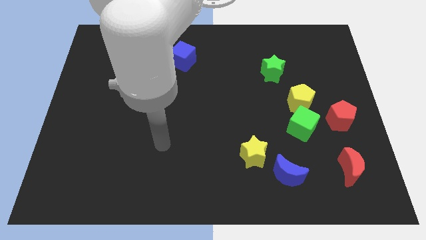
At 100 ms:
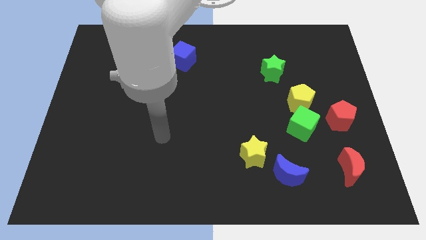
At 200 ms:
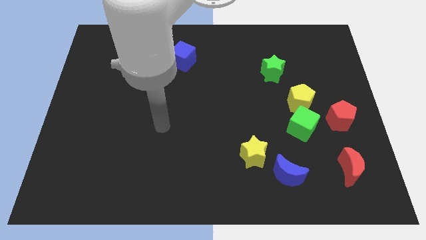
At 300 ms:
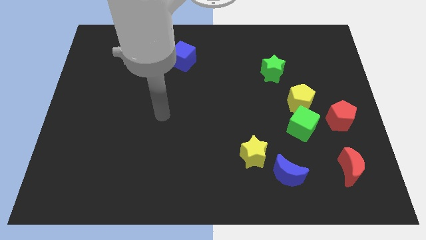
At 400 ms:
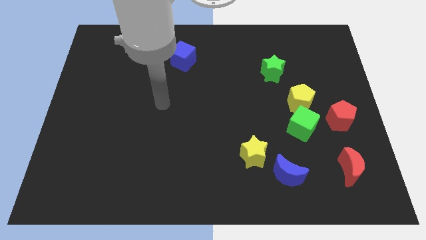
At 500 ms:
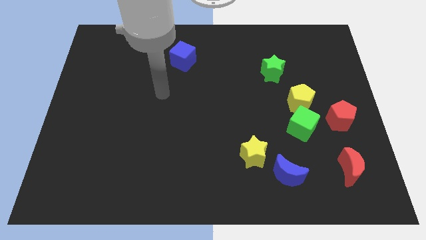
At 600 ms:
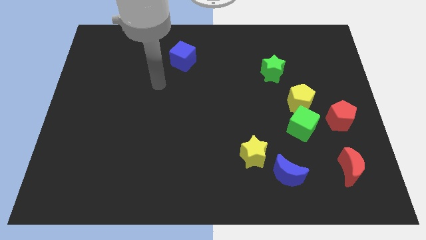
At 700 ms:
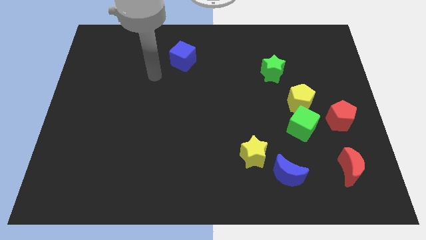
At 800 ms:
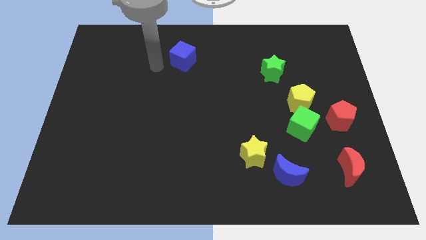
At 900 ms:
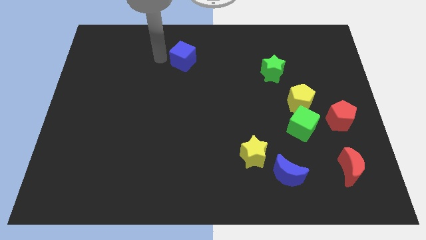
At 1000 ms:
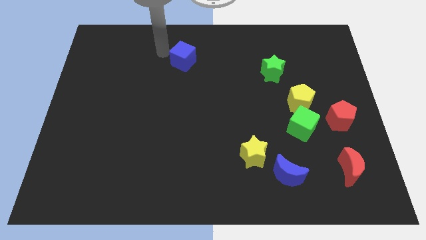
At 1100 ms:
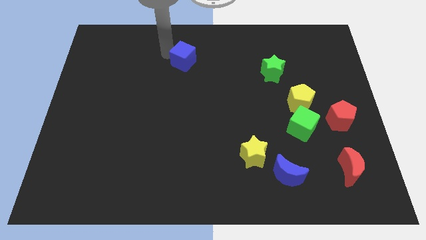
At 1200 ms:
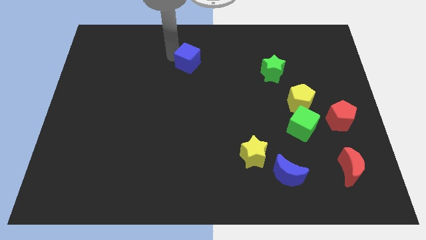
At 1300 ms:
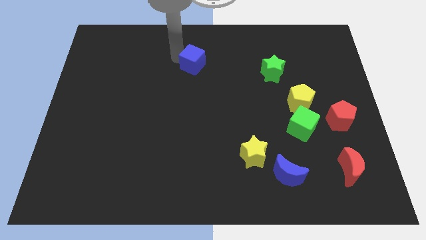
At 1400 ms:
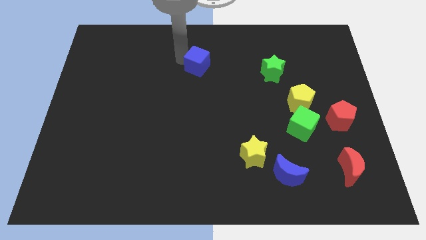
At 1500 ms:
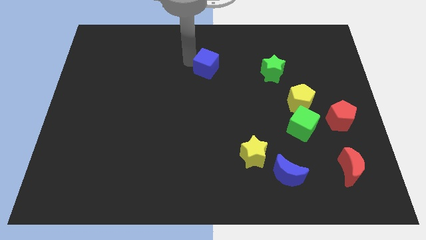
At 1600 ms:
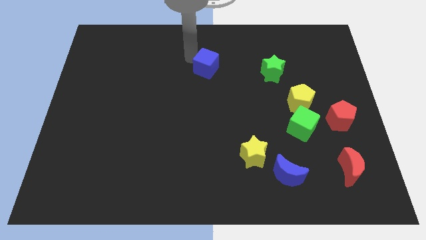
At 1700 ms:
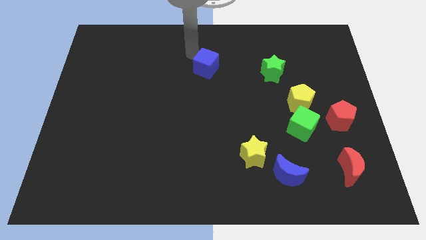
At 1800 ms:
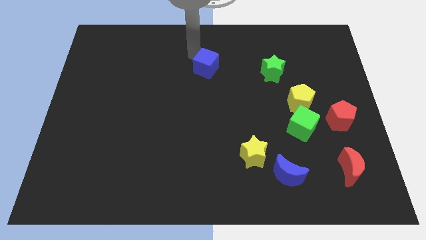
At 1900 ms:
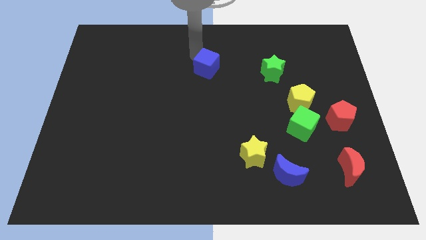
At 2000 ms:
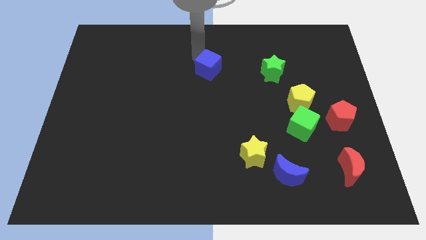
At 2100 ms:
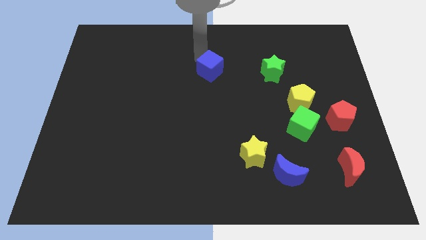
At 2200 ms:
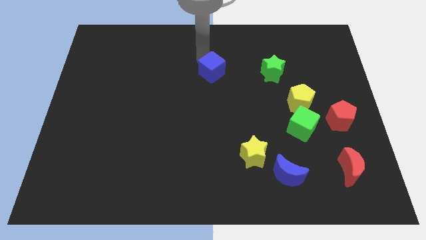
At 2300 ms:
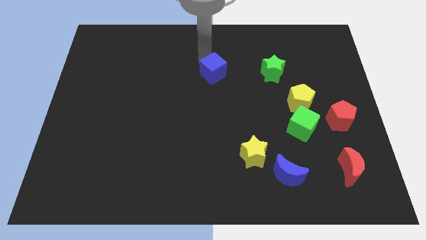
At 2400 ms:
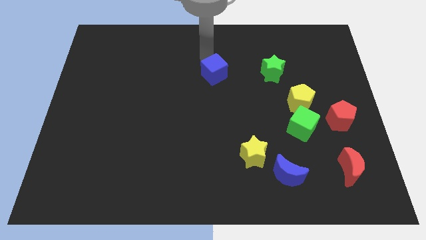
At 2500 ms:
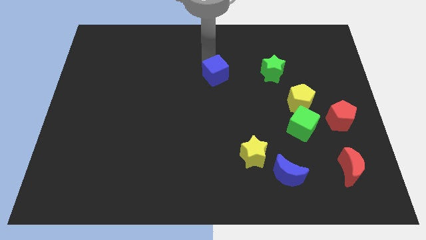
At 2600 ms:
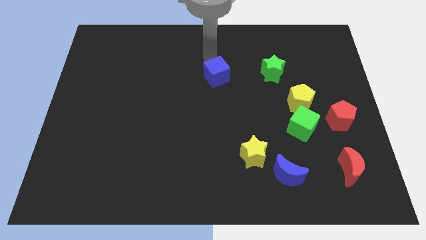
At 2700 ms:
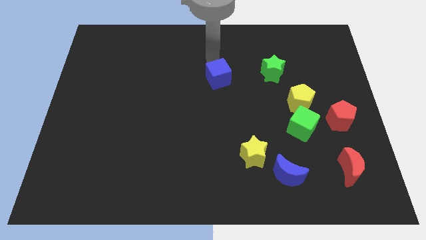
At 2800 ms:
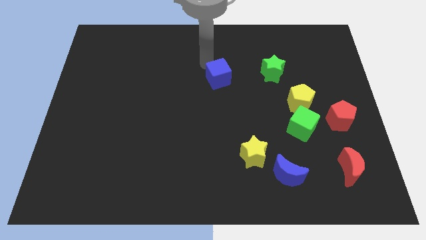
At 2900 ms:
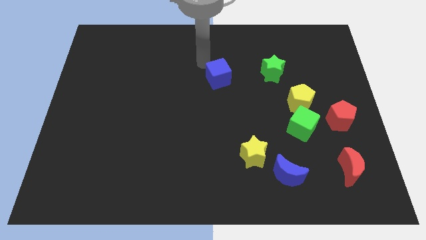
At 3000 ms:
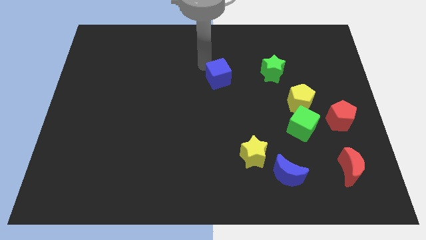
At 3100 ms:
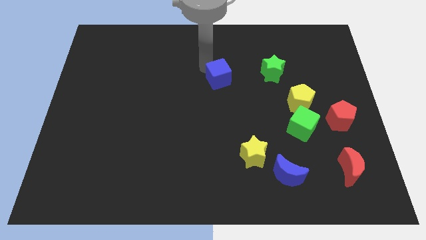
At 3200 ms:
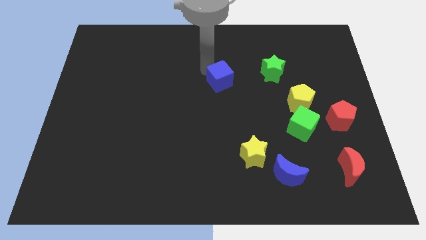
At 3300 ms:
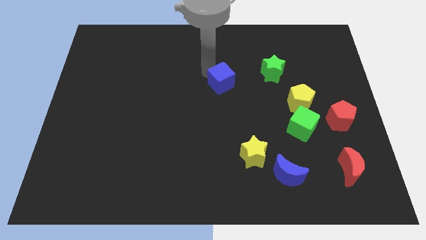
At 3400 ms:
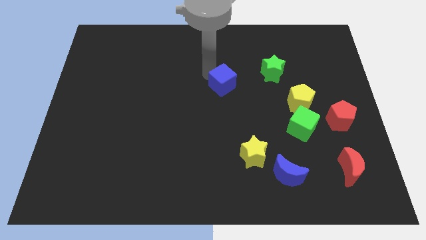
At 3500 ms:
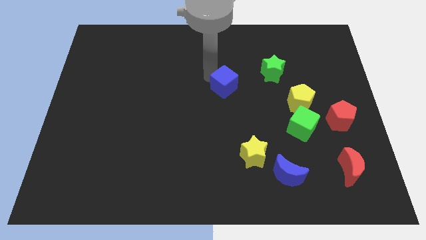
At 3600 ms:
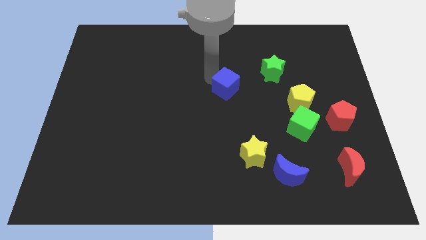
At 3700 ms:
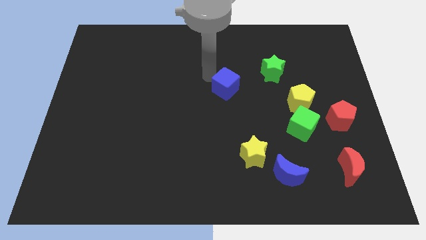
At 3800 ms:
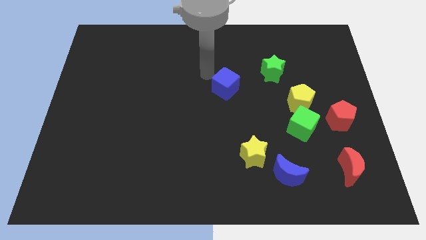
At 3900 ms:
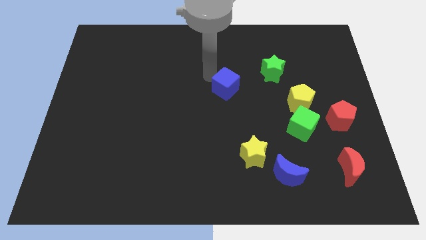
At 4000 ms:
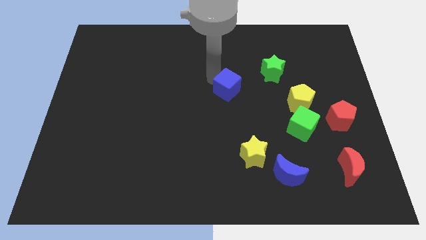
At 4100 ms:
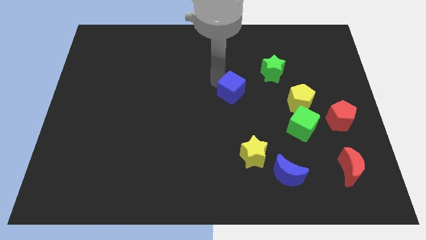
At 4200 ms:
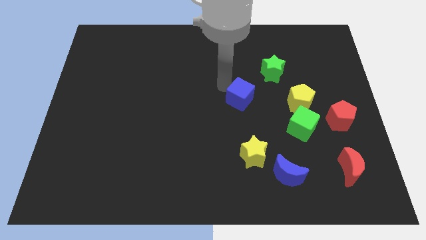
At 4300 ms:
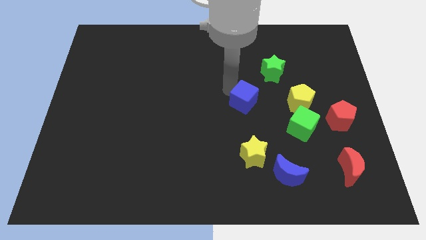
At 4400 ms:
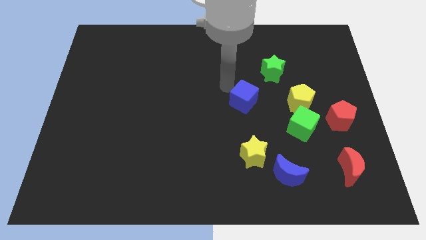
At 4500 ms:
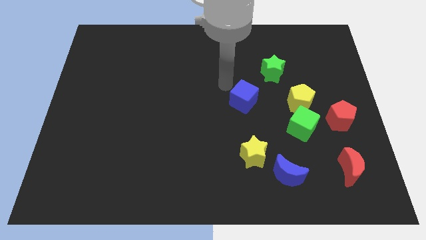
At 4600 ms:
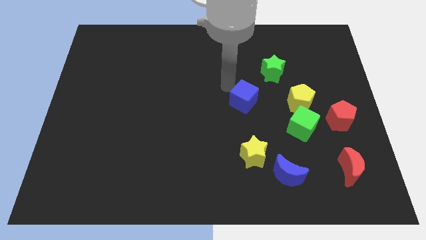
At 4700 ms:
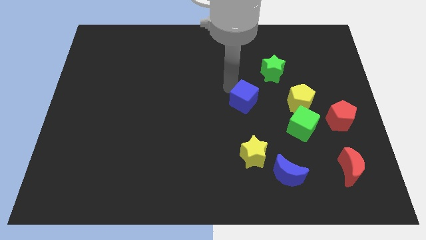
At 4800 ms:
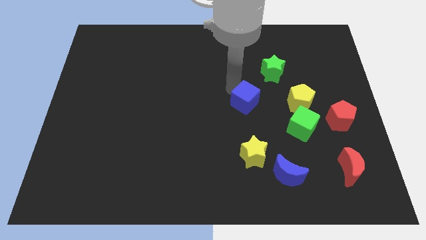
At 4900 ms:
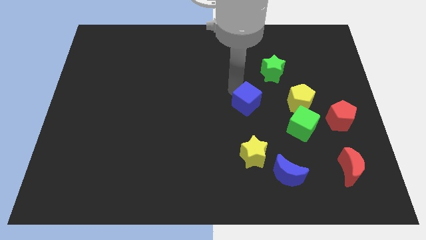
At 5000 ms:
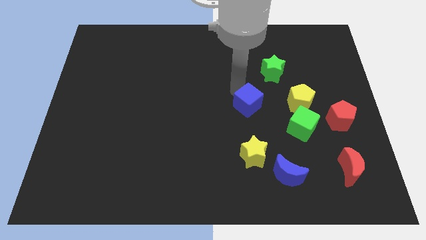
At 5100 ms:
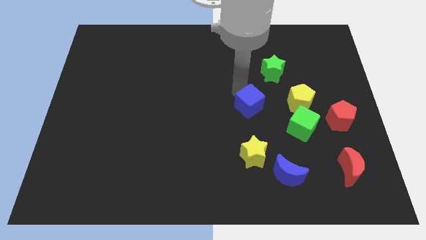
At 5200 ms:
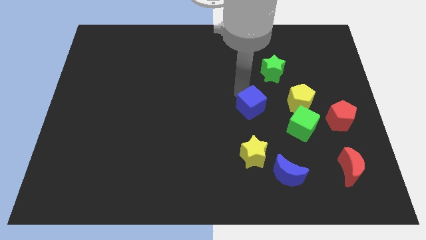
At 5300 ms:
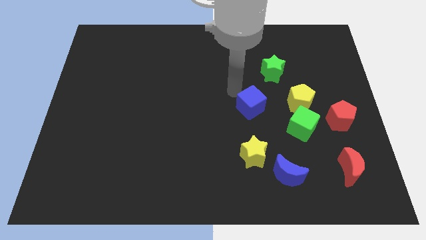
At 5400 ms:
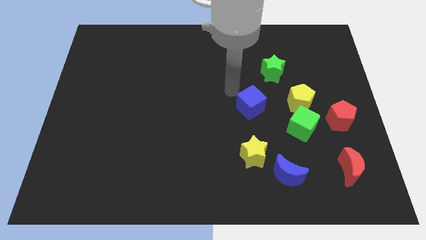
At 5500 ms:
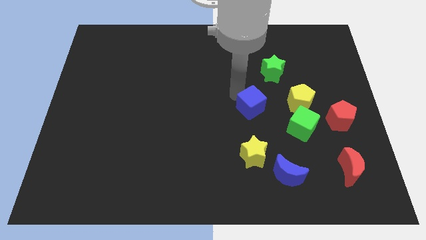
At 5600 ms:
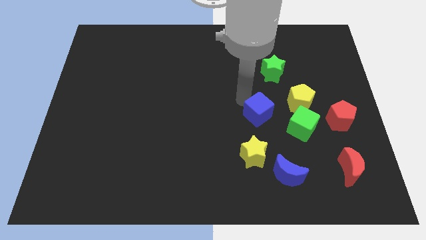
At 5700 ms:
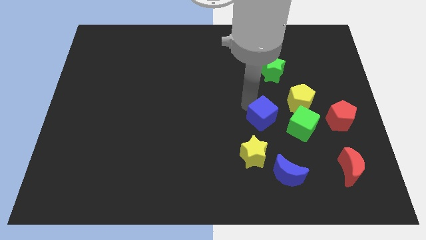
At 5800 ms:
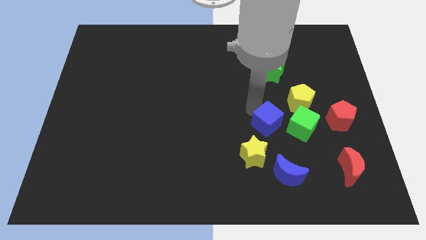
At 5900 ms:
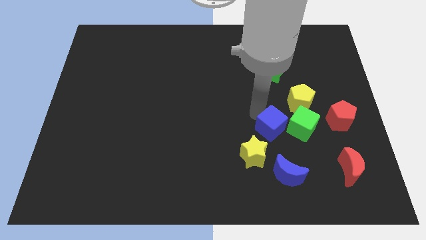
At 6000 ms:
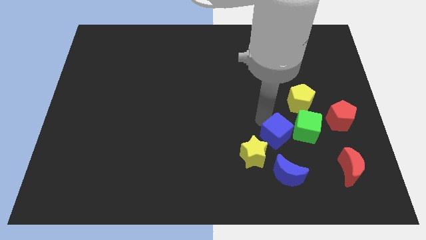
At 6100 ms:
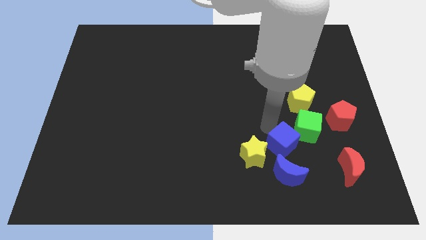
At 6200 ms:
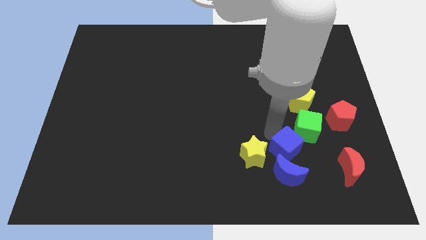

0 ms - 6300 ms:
move the blue cube to the top right of the blue moon
